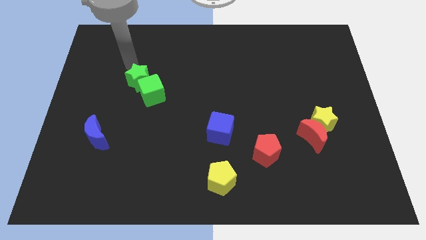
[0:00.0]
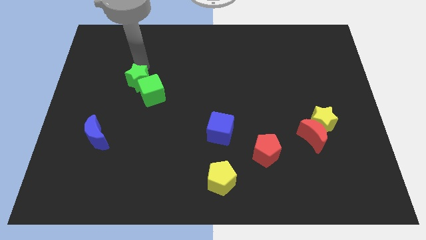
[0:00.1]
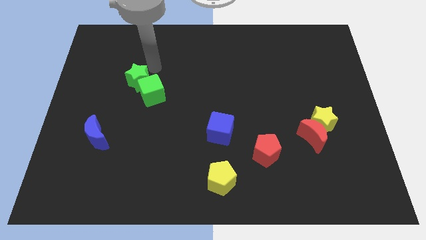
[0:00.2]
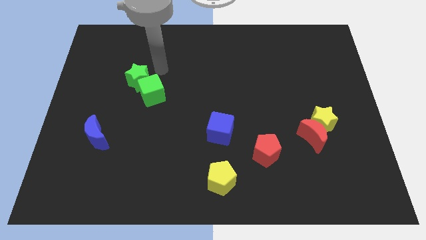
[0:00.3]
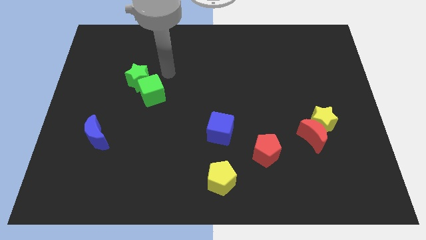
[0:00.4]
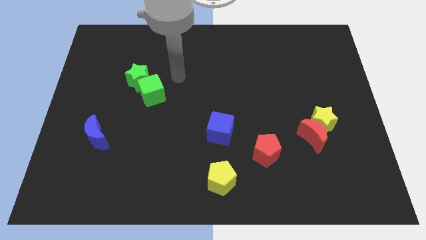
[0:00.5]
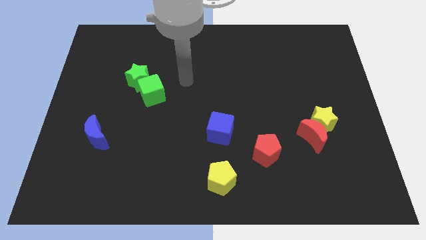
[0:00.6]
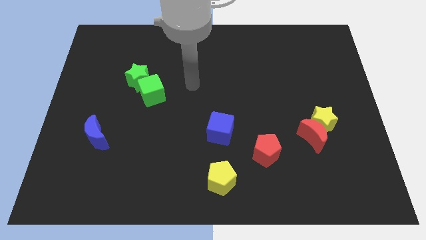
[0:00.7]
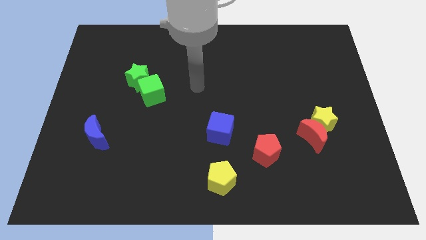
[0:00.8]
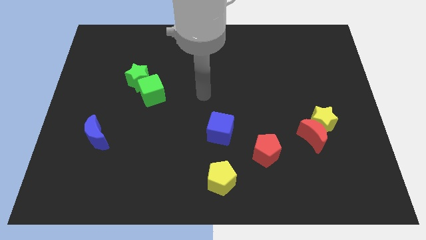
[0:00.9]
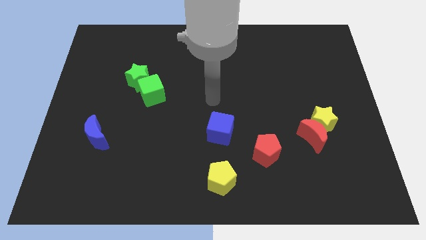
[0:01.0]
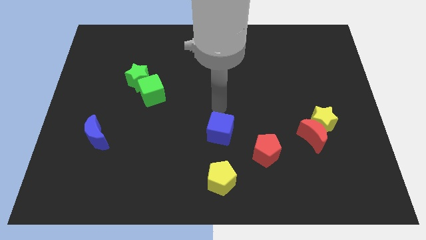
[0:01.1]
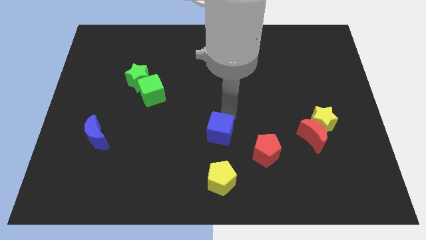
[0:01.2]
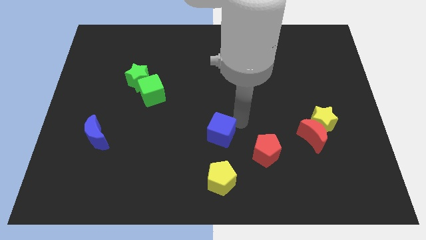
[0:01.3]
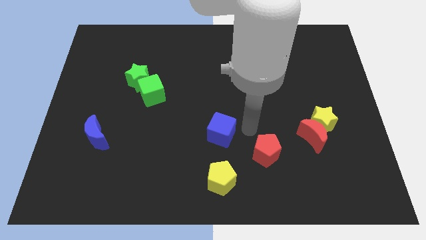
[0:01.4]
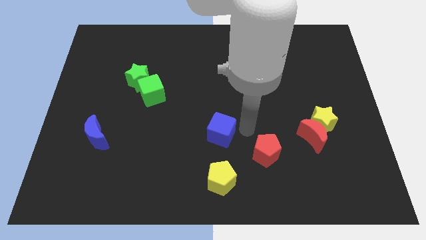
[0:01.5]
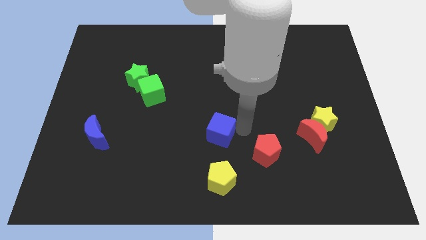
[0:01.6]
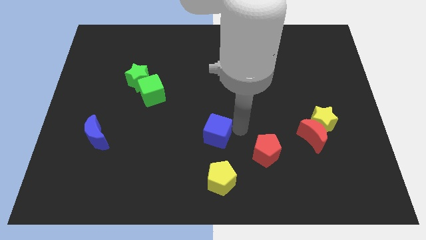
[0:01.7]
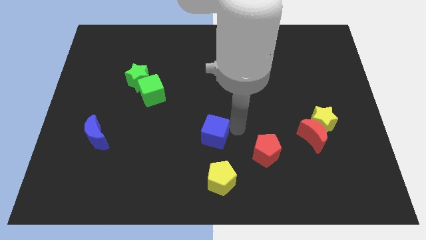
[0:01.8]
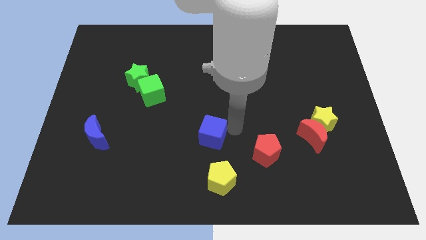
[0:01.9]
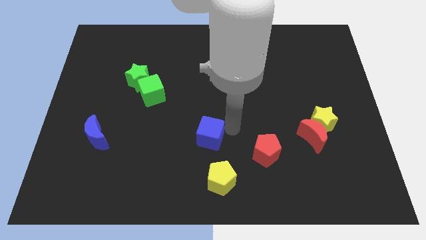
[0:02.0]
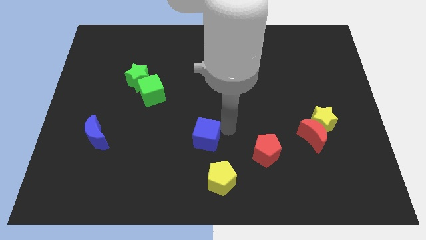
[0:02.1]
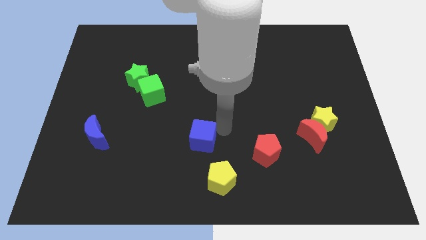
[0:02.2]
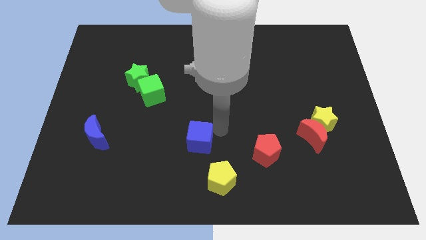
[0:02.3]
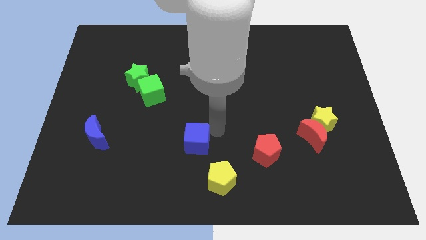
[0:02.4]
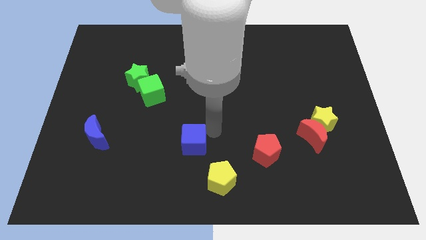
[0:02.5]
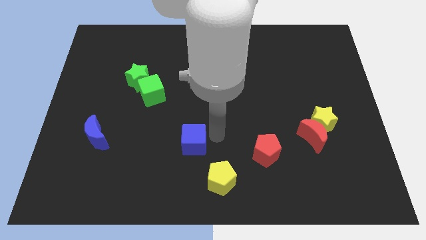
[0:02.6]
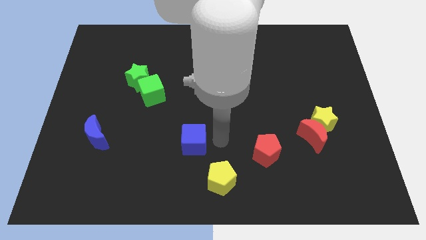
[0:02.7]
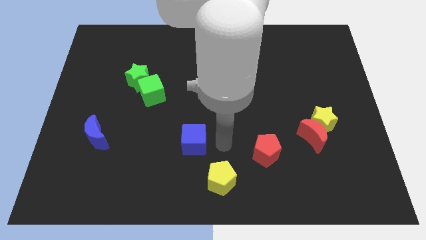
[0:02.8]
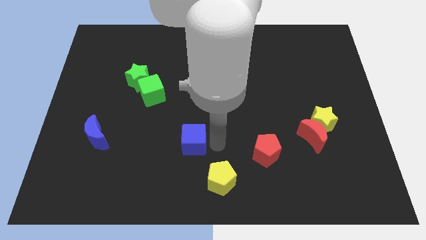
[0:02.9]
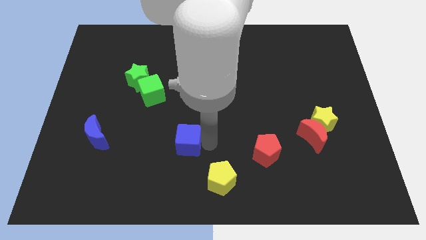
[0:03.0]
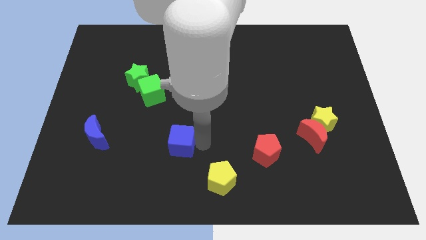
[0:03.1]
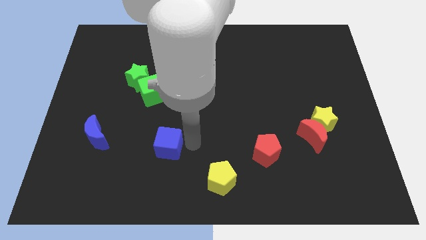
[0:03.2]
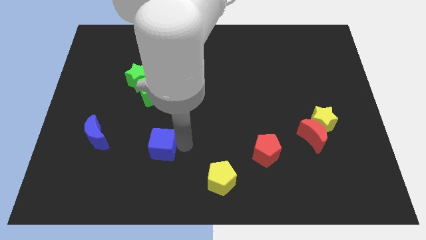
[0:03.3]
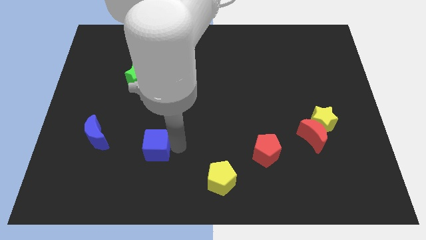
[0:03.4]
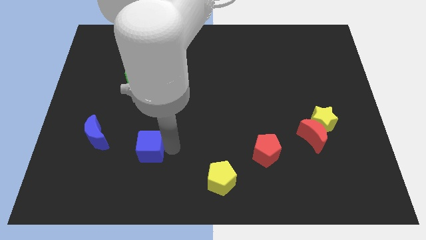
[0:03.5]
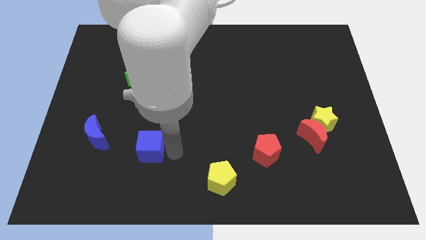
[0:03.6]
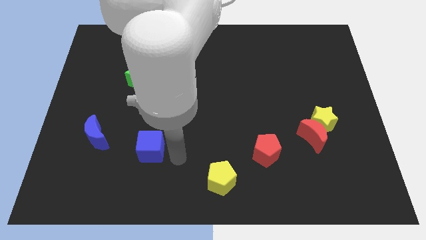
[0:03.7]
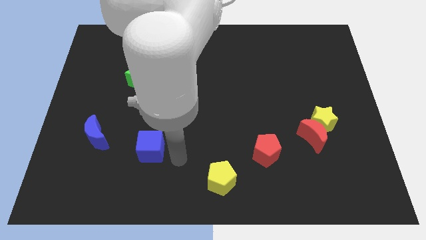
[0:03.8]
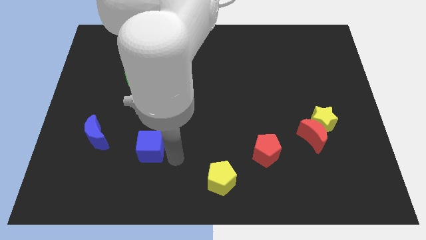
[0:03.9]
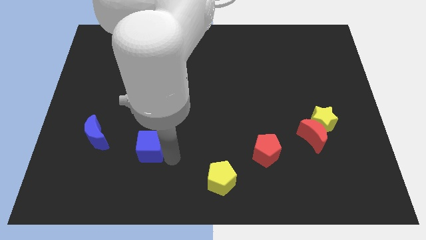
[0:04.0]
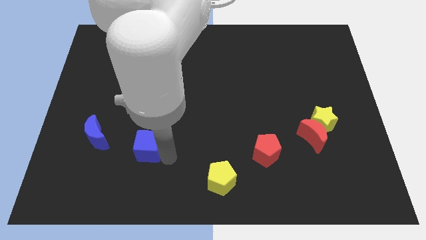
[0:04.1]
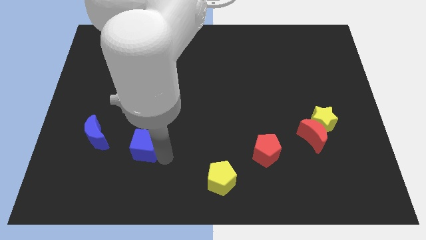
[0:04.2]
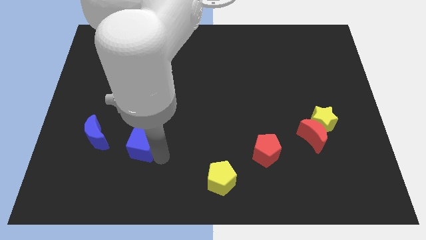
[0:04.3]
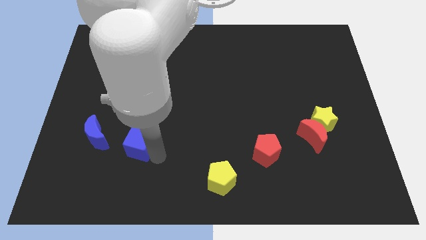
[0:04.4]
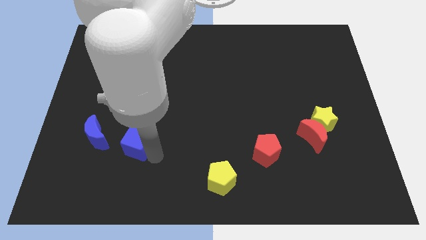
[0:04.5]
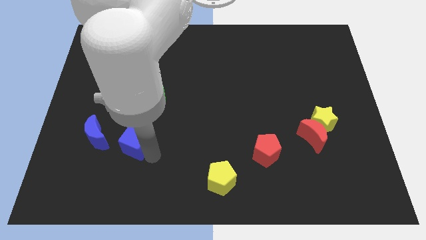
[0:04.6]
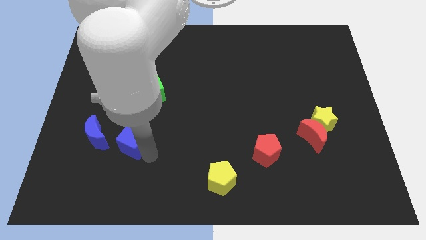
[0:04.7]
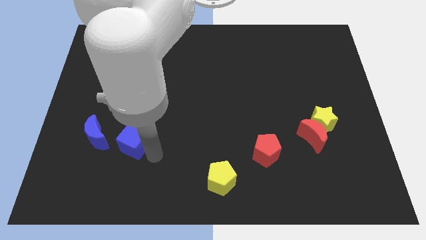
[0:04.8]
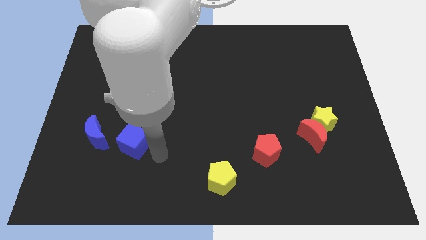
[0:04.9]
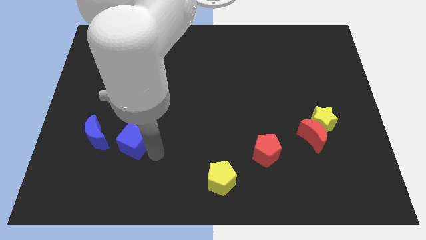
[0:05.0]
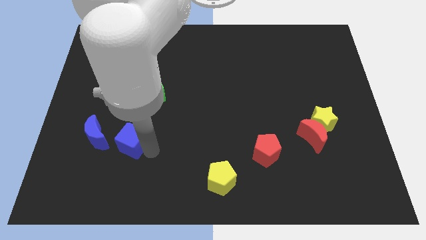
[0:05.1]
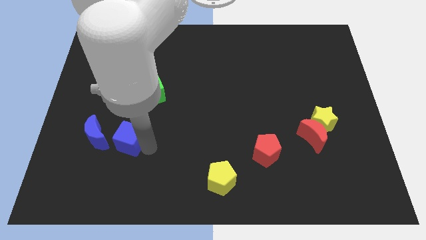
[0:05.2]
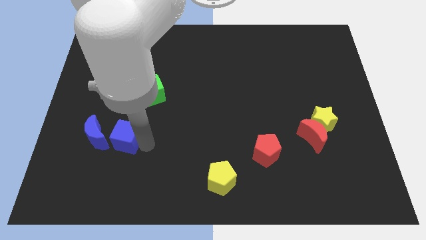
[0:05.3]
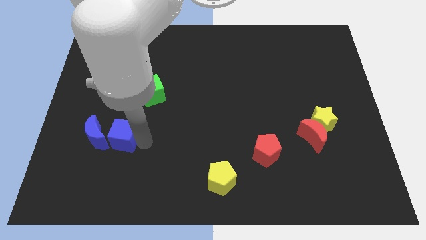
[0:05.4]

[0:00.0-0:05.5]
put the blue cube next to the blue moon

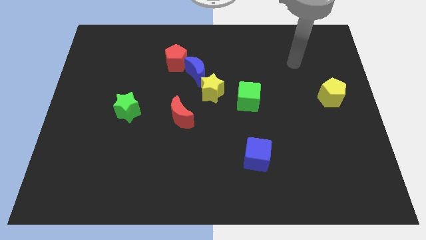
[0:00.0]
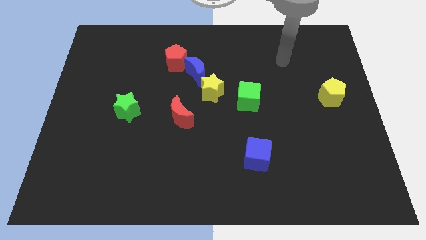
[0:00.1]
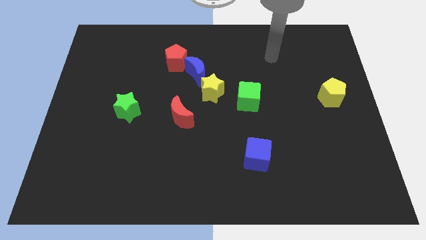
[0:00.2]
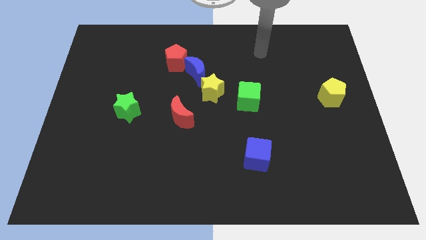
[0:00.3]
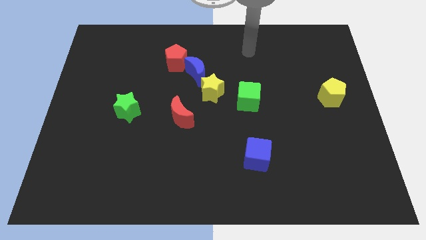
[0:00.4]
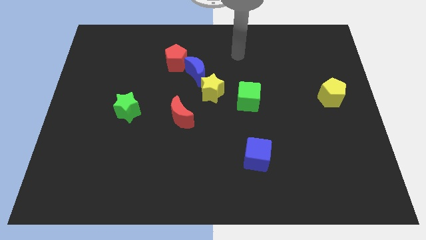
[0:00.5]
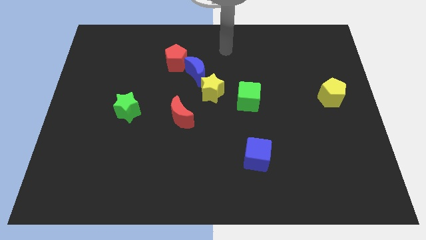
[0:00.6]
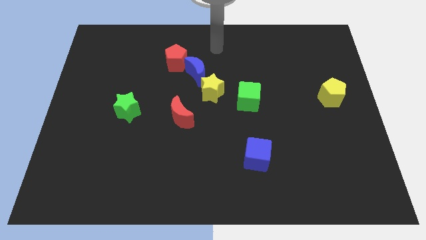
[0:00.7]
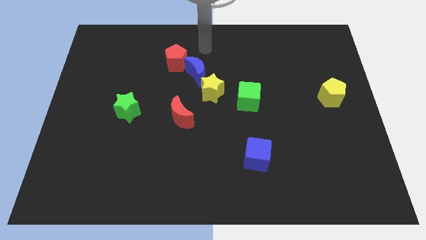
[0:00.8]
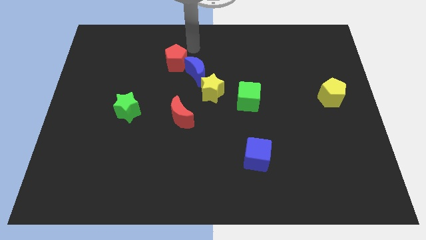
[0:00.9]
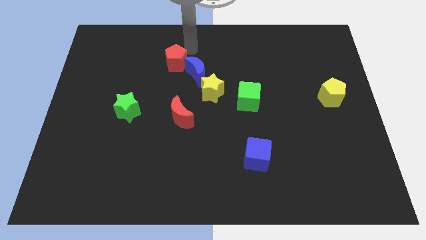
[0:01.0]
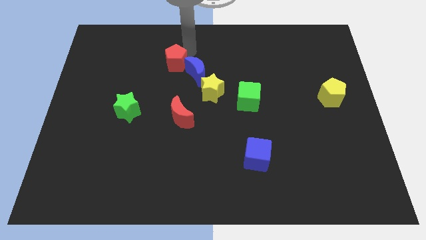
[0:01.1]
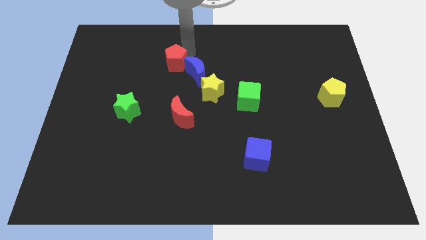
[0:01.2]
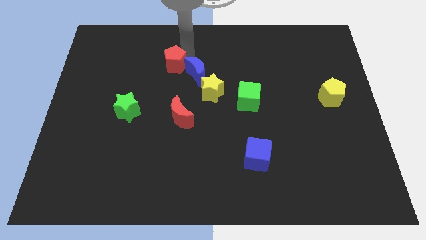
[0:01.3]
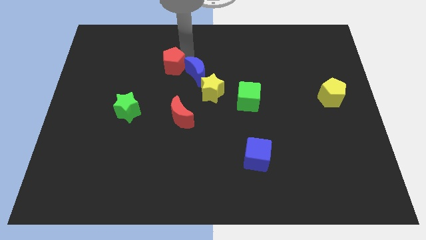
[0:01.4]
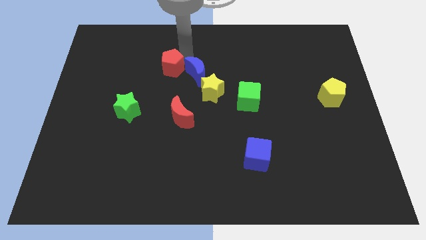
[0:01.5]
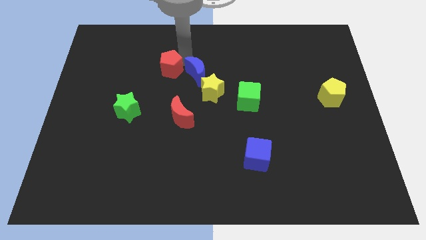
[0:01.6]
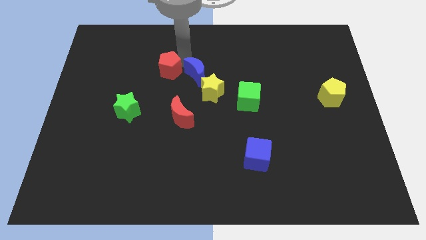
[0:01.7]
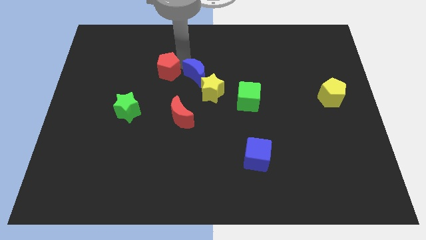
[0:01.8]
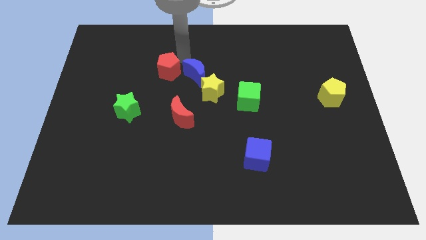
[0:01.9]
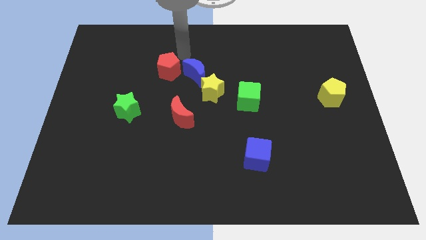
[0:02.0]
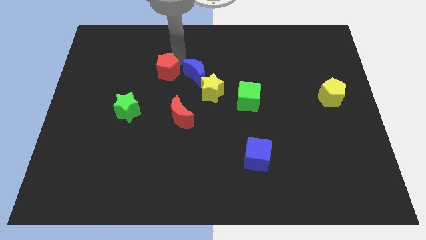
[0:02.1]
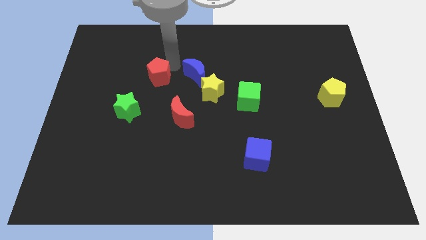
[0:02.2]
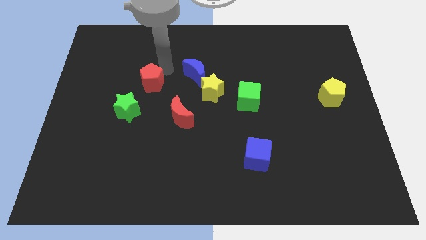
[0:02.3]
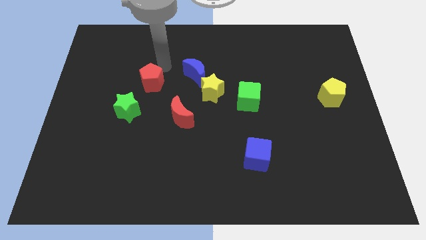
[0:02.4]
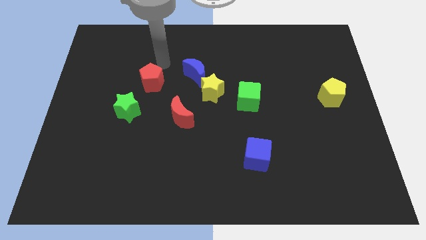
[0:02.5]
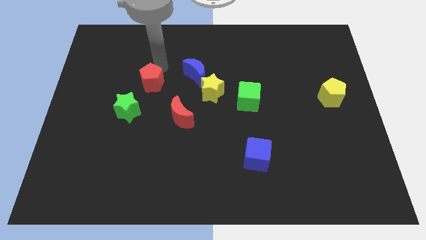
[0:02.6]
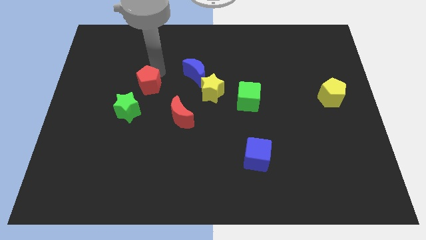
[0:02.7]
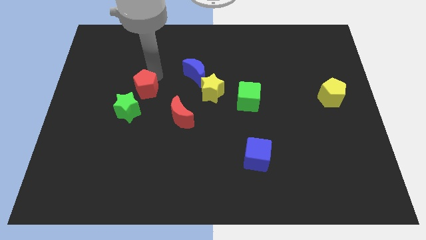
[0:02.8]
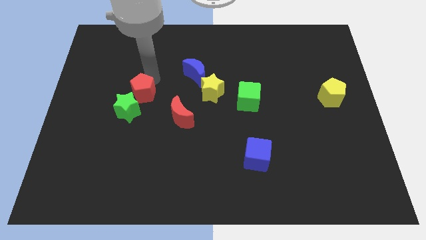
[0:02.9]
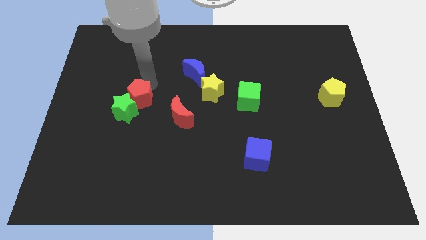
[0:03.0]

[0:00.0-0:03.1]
slide the red pentagon close to the green star
